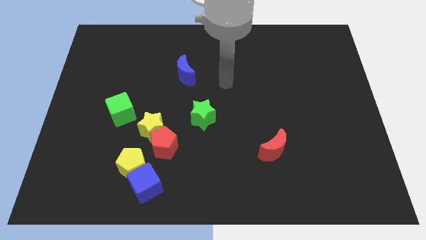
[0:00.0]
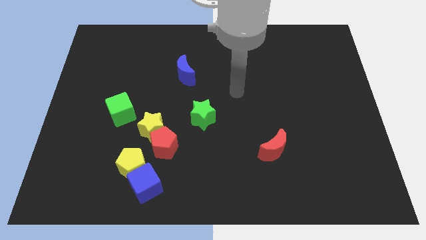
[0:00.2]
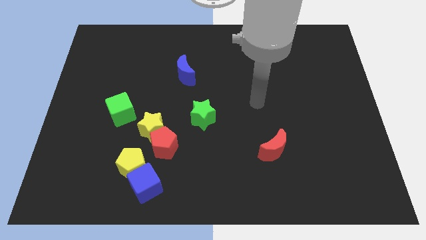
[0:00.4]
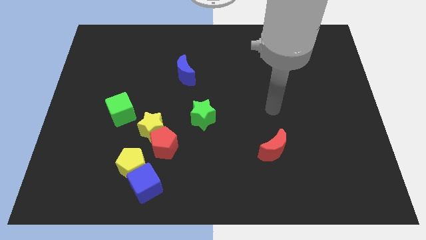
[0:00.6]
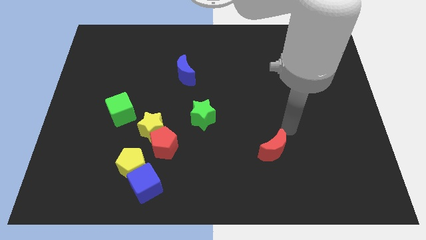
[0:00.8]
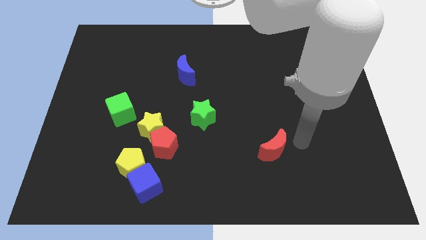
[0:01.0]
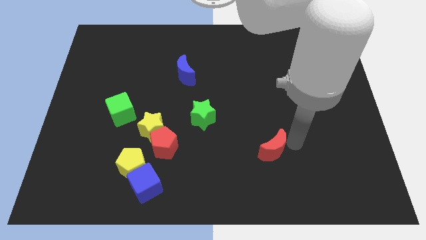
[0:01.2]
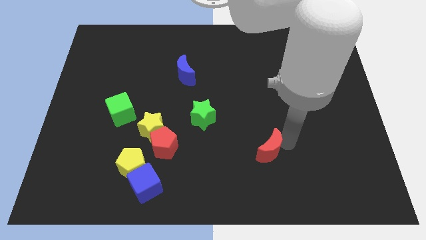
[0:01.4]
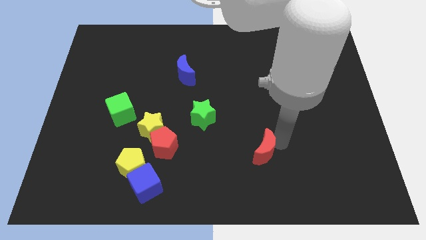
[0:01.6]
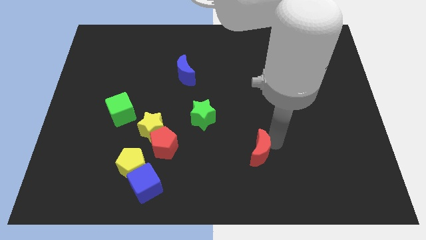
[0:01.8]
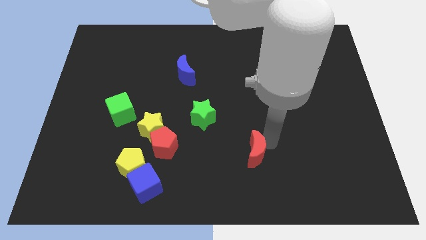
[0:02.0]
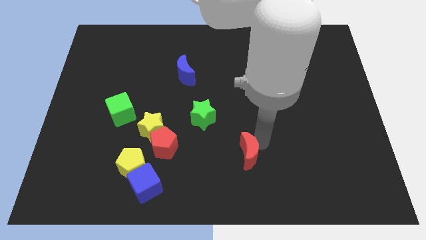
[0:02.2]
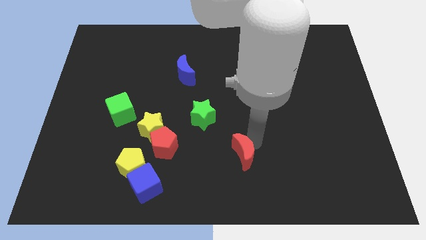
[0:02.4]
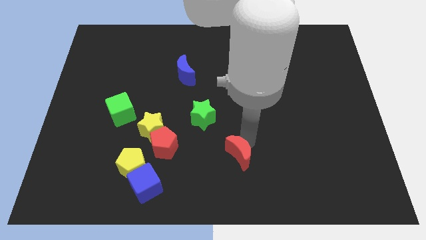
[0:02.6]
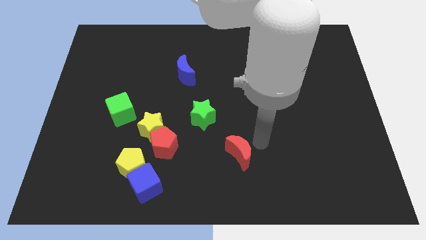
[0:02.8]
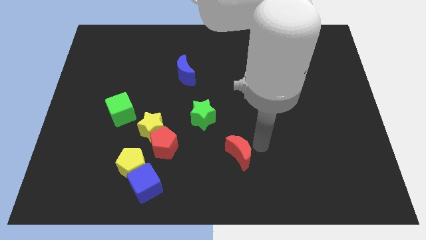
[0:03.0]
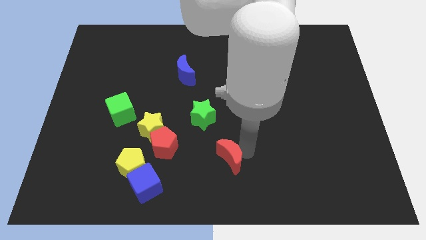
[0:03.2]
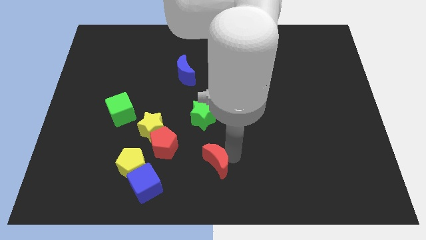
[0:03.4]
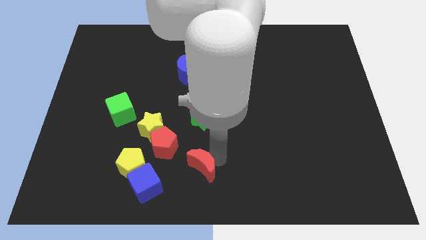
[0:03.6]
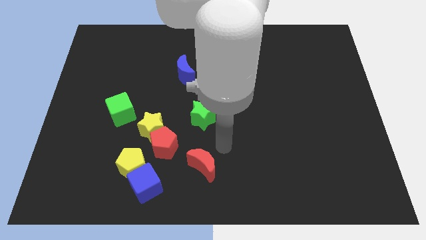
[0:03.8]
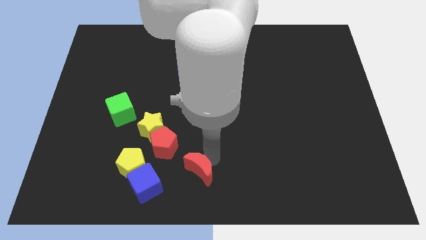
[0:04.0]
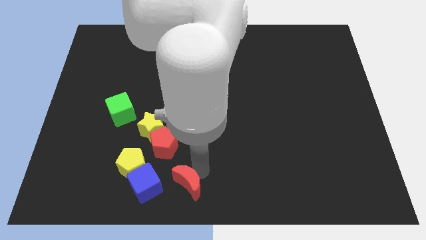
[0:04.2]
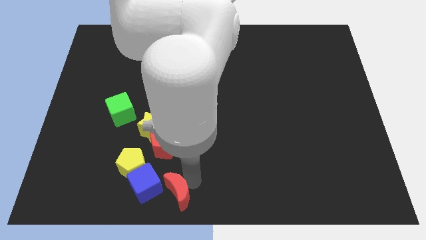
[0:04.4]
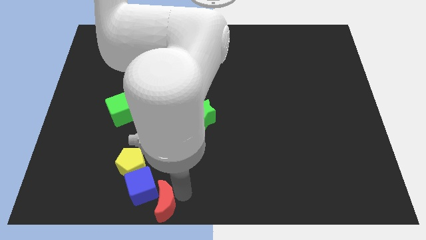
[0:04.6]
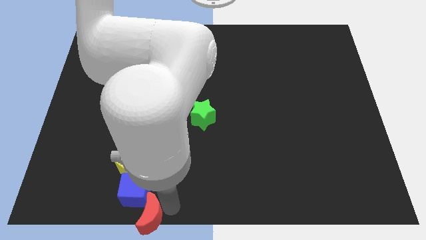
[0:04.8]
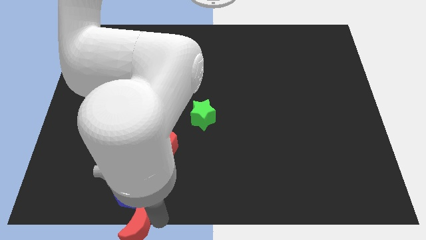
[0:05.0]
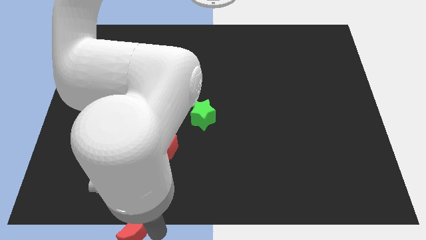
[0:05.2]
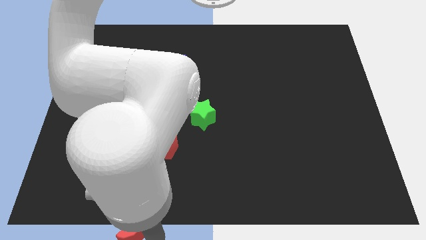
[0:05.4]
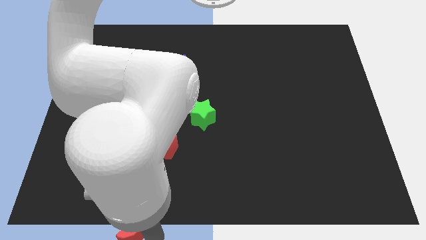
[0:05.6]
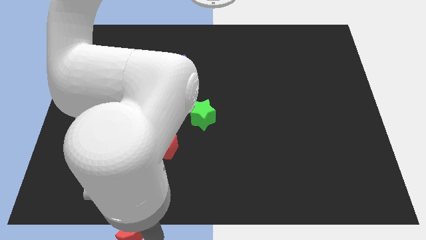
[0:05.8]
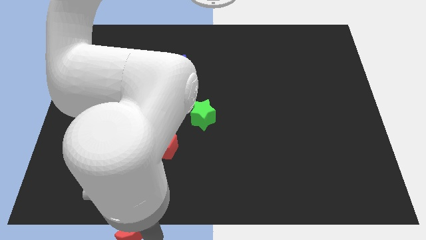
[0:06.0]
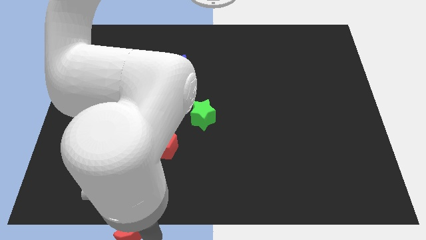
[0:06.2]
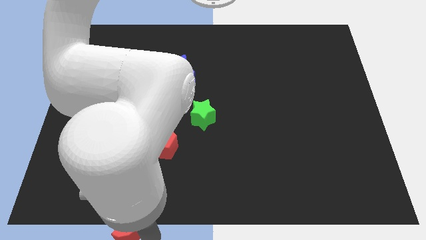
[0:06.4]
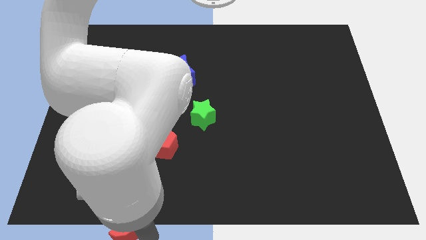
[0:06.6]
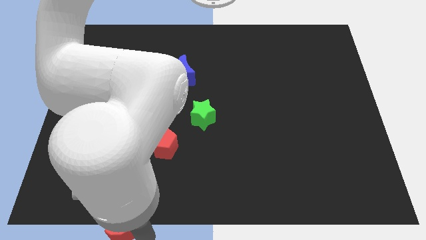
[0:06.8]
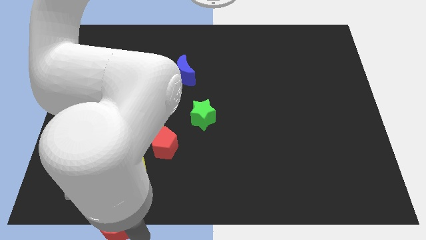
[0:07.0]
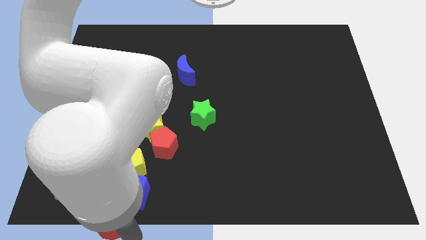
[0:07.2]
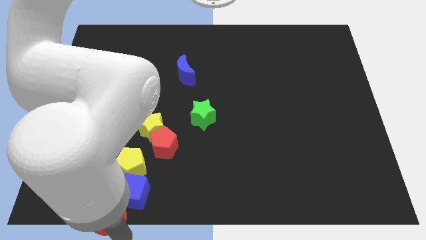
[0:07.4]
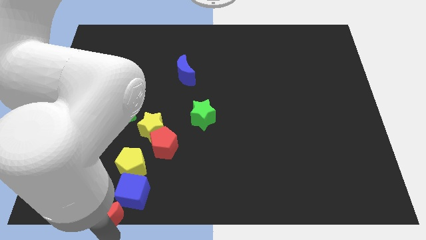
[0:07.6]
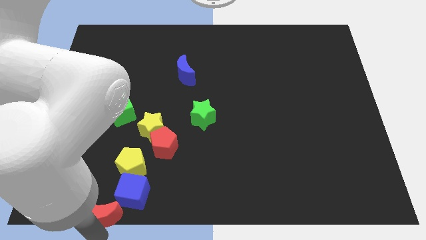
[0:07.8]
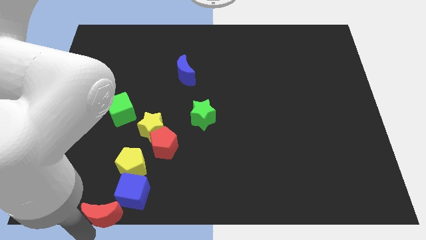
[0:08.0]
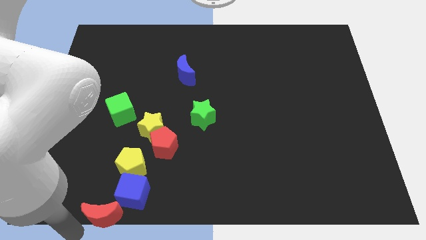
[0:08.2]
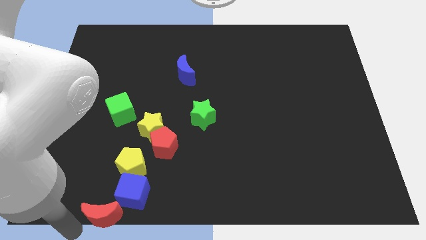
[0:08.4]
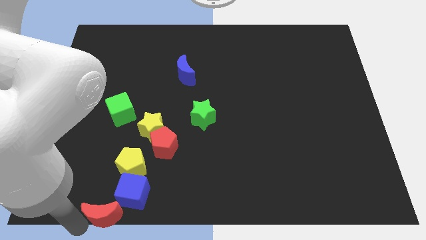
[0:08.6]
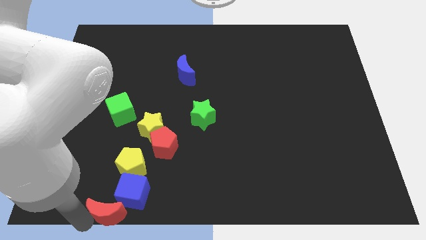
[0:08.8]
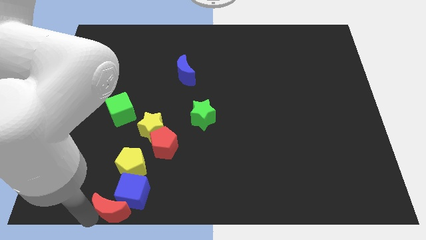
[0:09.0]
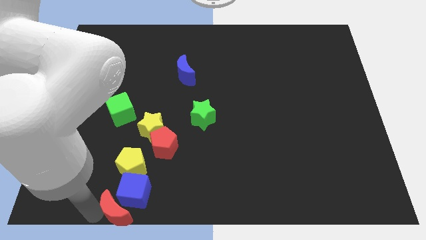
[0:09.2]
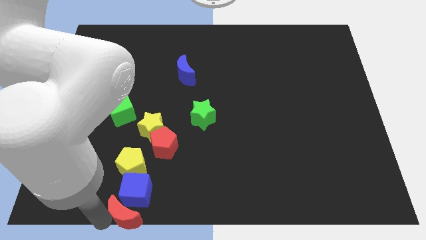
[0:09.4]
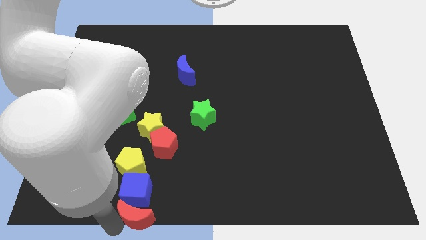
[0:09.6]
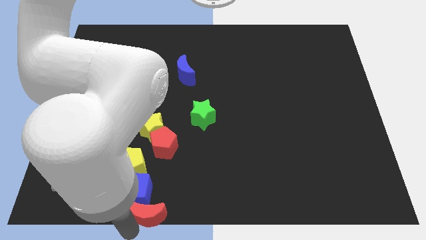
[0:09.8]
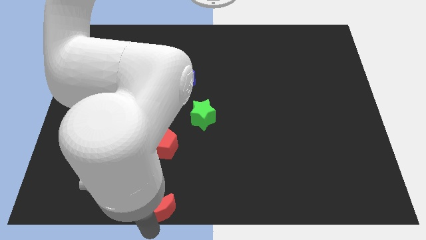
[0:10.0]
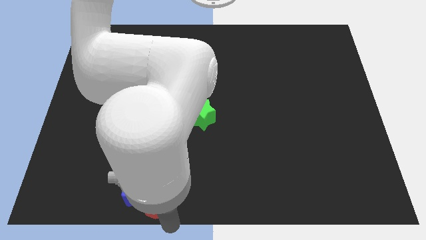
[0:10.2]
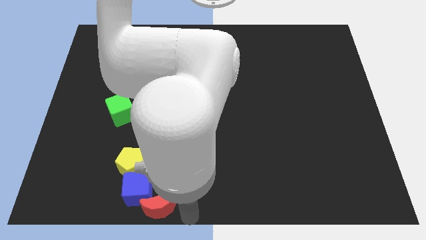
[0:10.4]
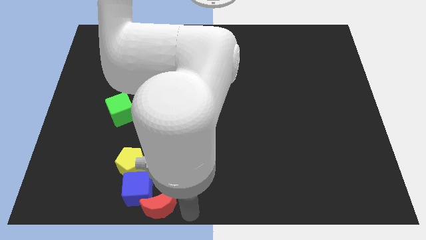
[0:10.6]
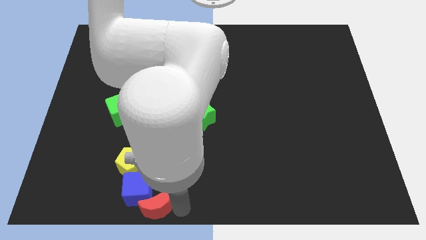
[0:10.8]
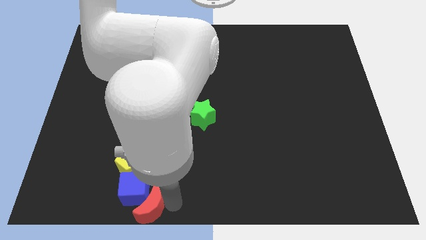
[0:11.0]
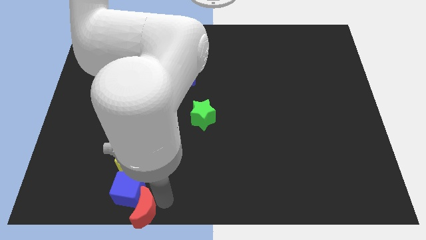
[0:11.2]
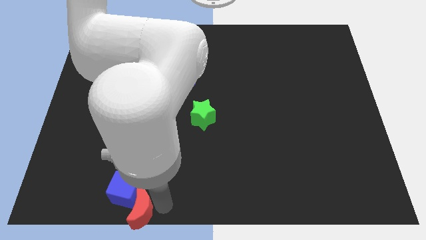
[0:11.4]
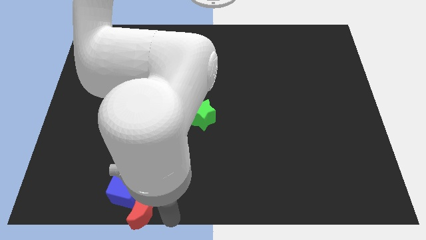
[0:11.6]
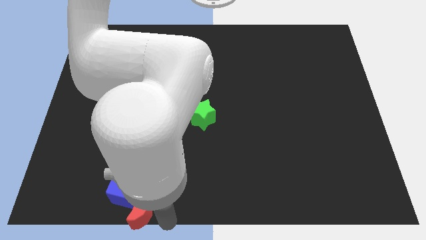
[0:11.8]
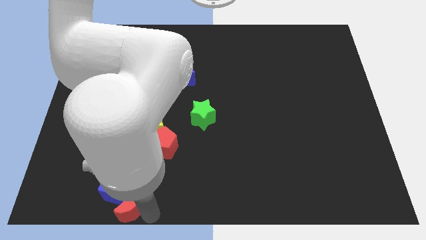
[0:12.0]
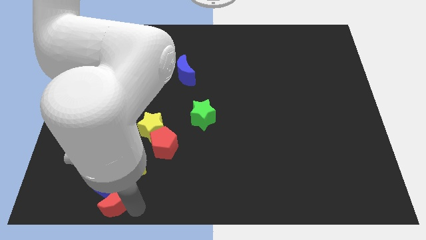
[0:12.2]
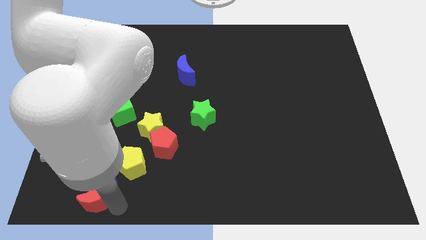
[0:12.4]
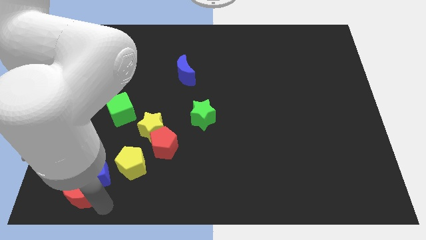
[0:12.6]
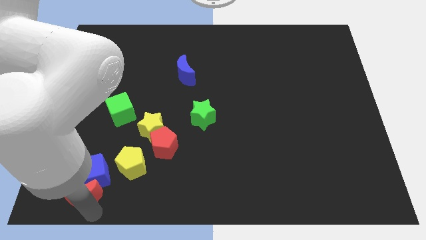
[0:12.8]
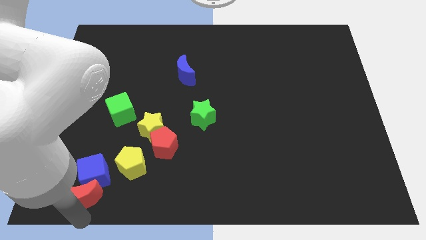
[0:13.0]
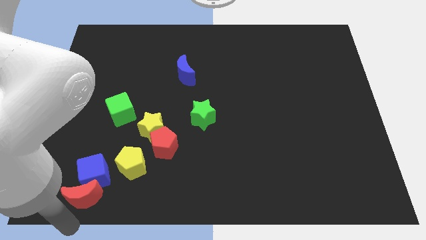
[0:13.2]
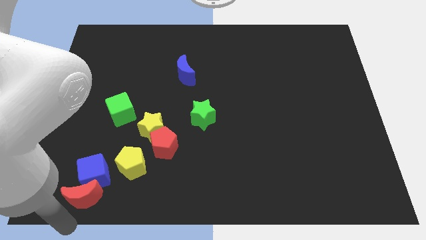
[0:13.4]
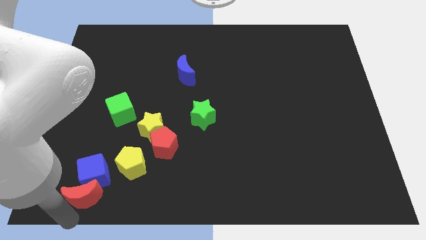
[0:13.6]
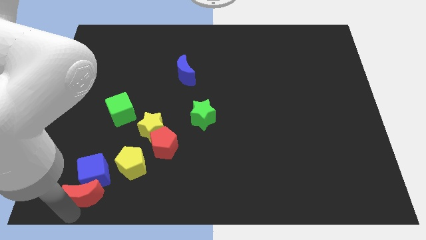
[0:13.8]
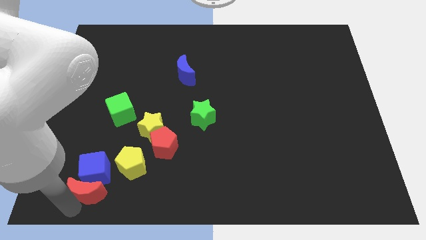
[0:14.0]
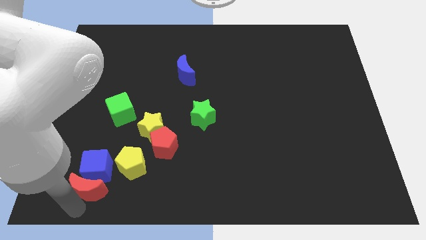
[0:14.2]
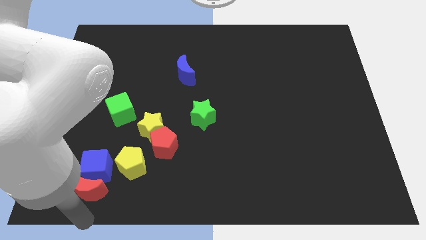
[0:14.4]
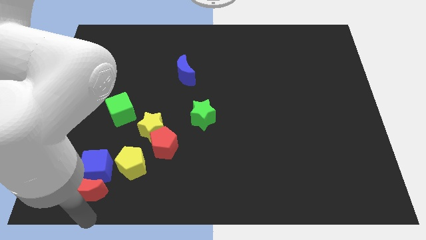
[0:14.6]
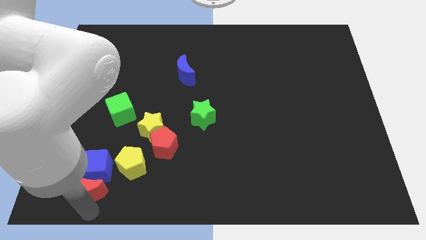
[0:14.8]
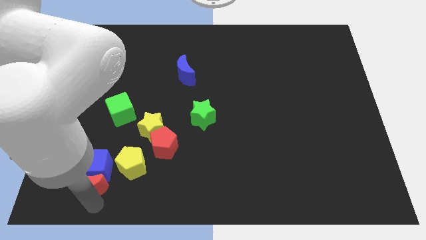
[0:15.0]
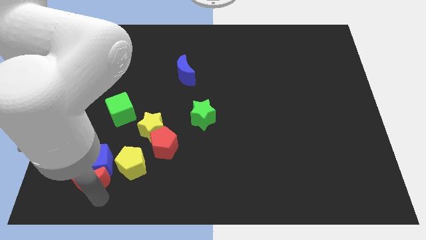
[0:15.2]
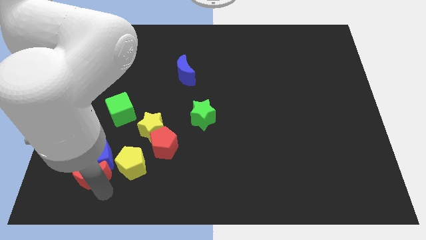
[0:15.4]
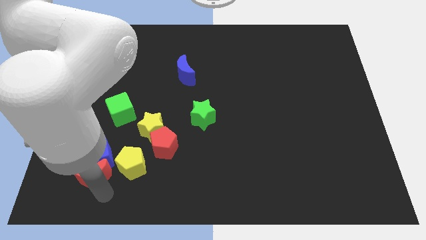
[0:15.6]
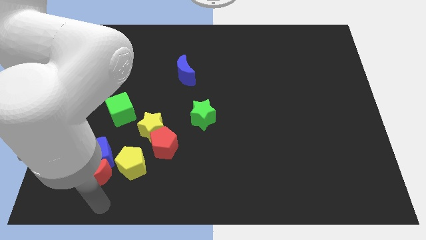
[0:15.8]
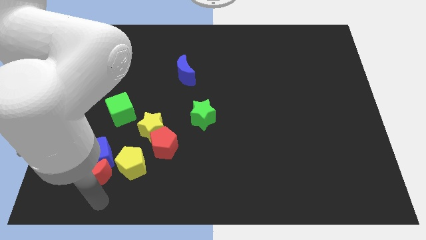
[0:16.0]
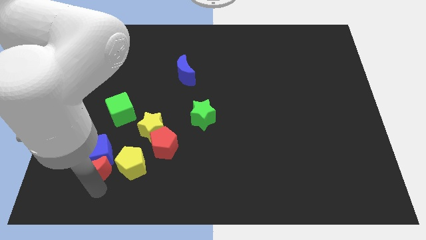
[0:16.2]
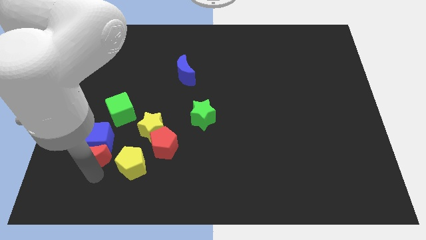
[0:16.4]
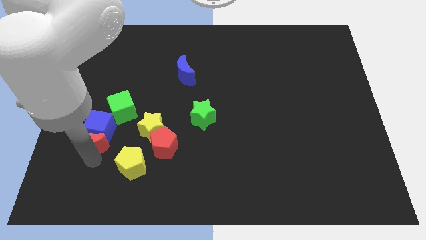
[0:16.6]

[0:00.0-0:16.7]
move the red moon diagonally down and to the left of the green cube
